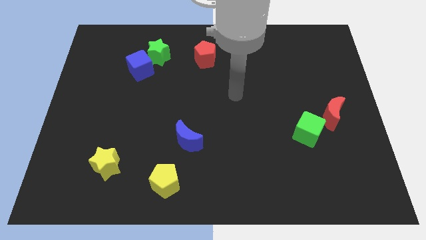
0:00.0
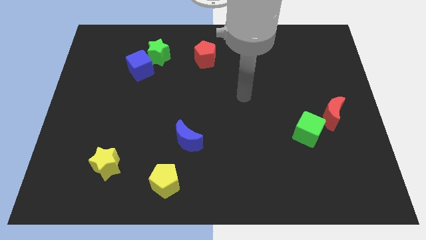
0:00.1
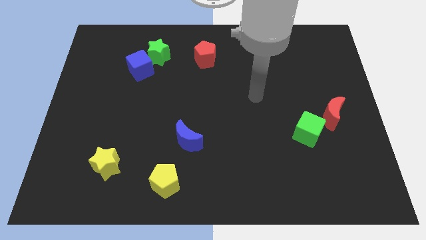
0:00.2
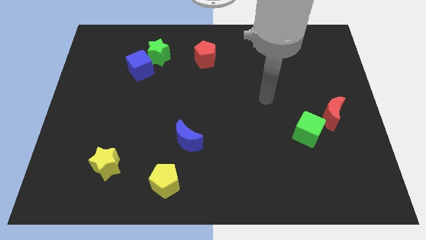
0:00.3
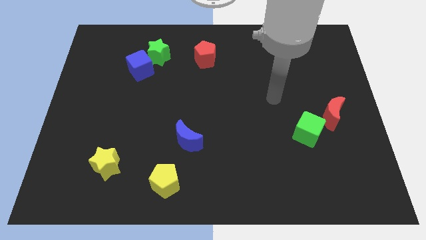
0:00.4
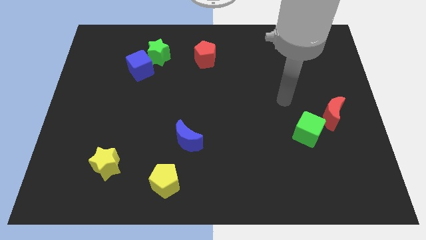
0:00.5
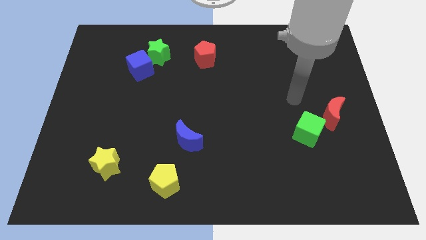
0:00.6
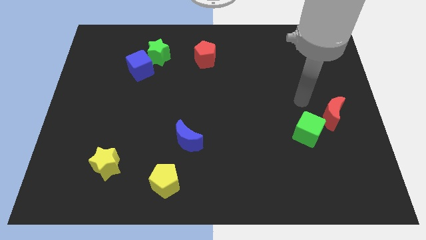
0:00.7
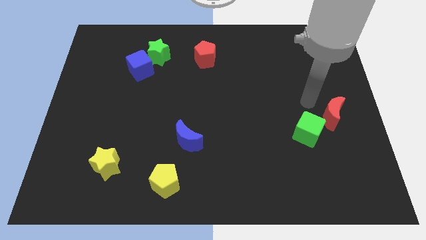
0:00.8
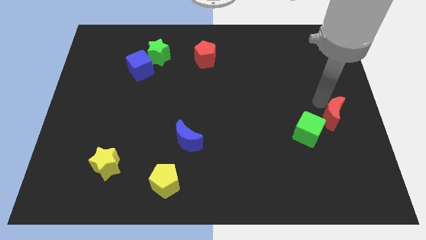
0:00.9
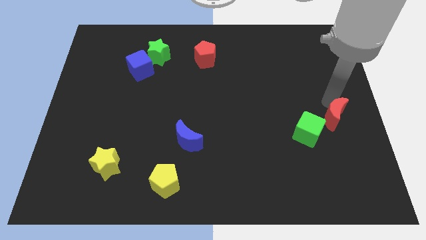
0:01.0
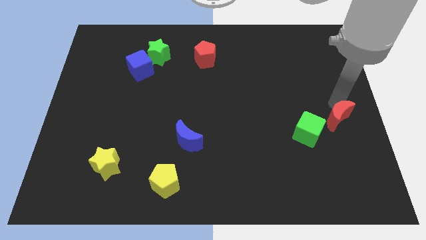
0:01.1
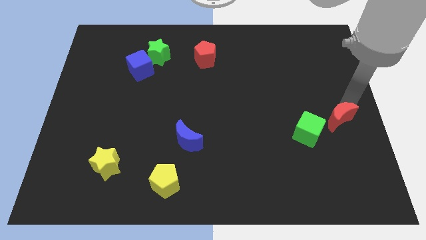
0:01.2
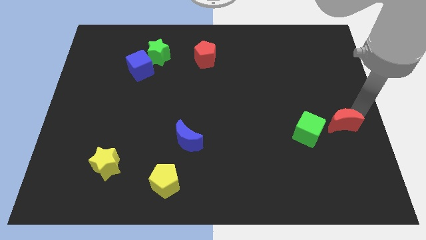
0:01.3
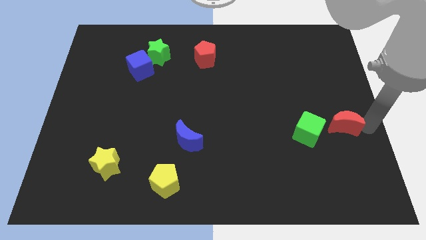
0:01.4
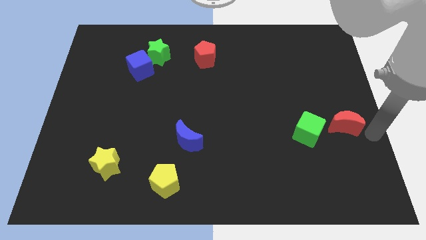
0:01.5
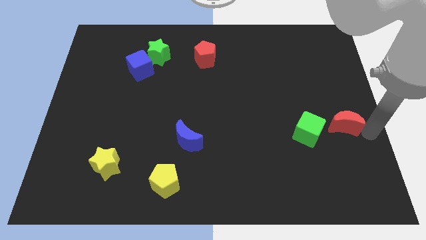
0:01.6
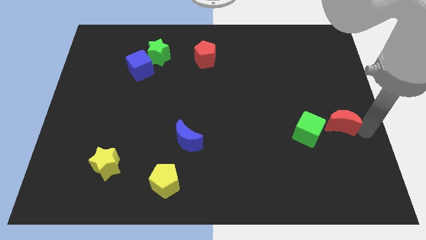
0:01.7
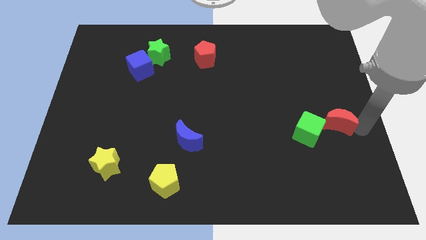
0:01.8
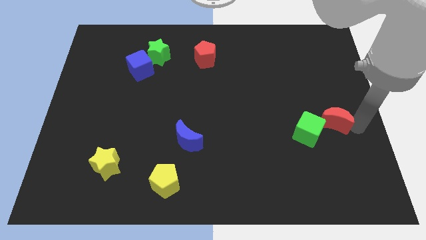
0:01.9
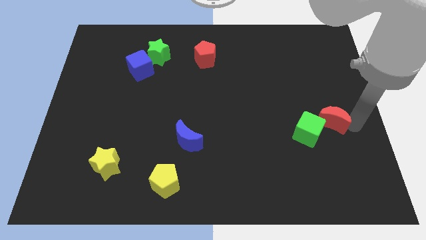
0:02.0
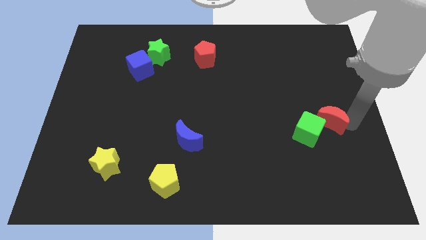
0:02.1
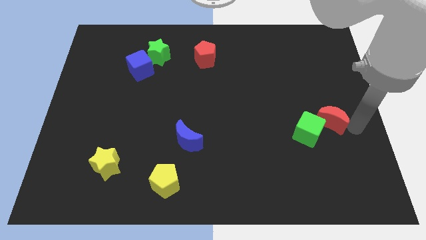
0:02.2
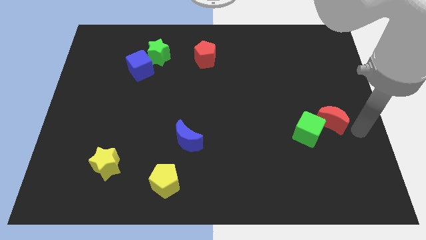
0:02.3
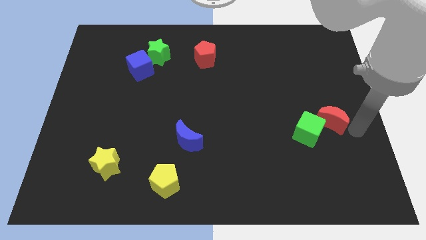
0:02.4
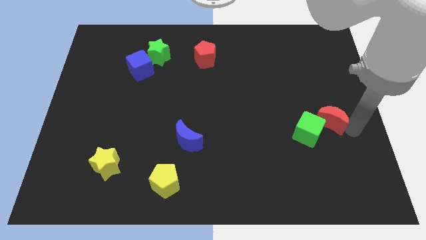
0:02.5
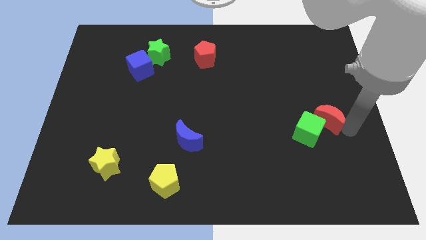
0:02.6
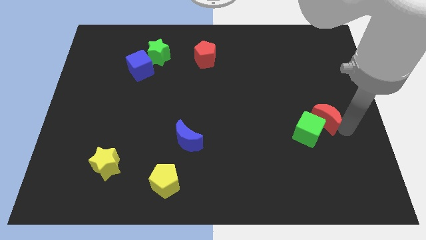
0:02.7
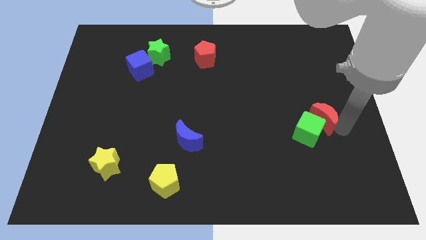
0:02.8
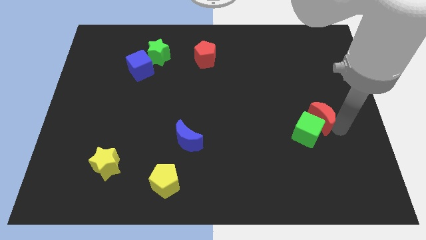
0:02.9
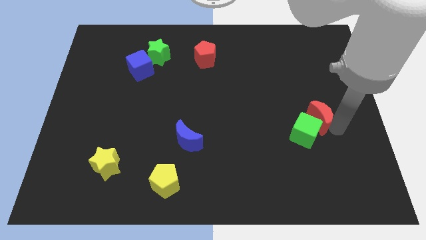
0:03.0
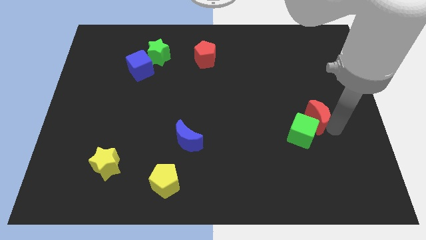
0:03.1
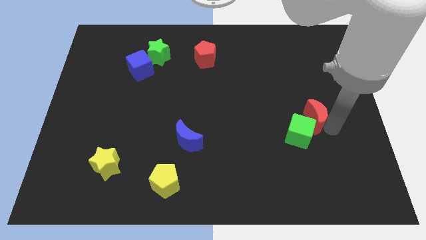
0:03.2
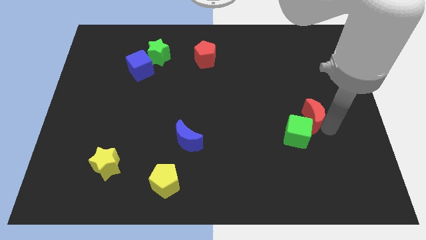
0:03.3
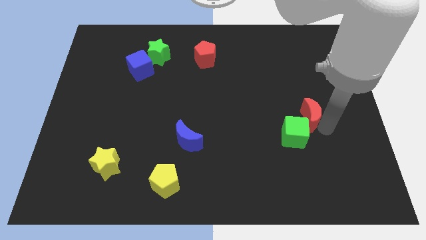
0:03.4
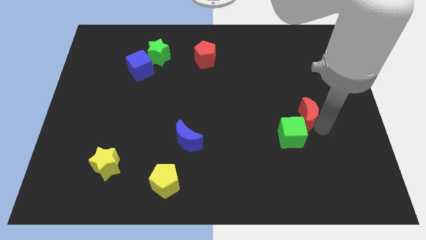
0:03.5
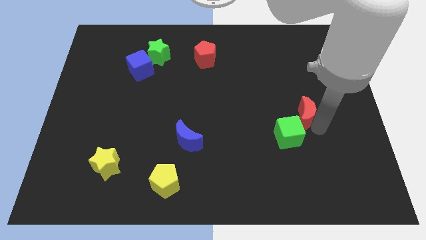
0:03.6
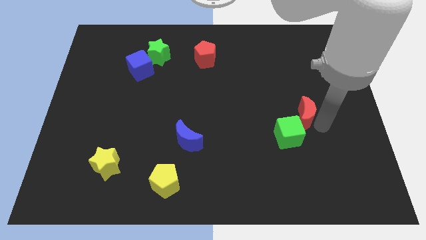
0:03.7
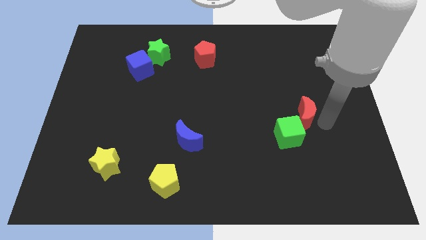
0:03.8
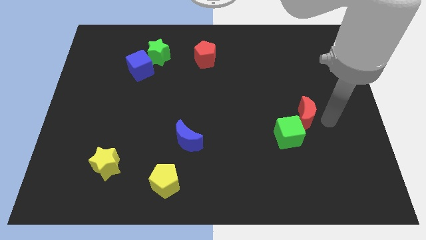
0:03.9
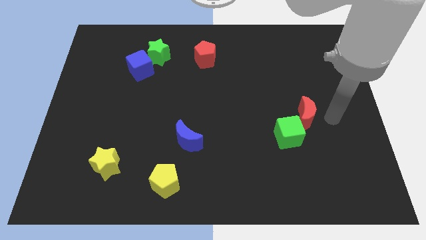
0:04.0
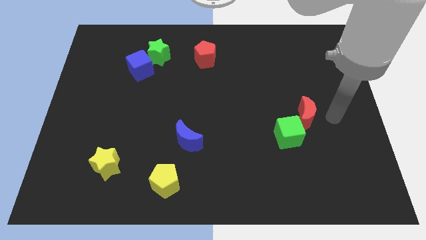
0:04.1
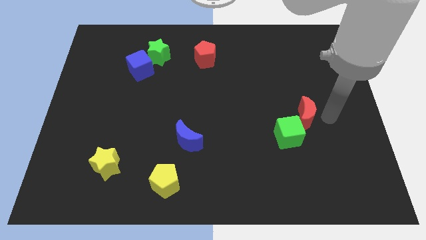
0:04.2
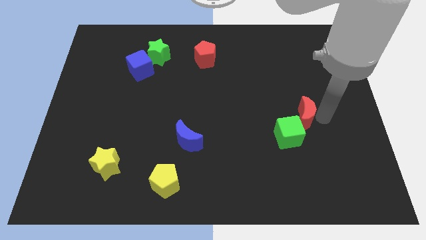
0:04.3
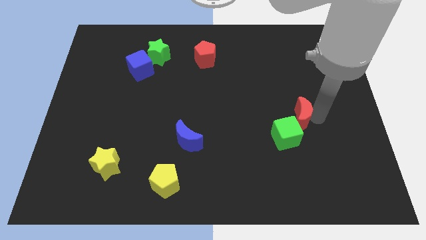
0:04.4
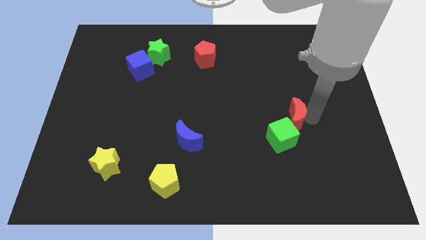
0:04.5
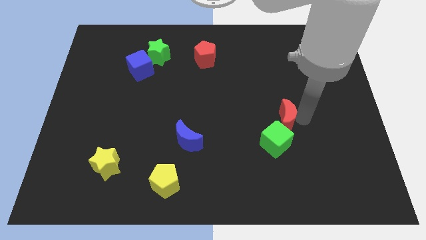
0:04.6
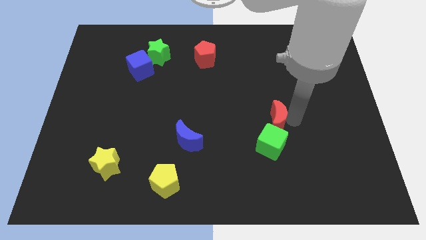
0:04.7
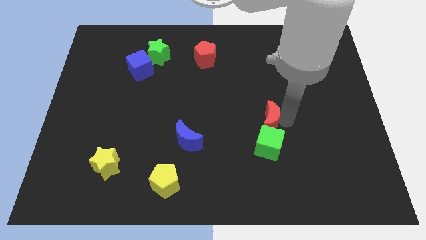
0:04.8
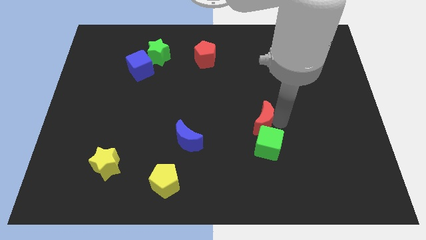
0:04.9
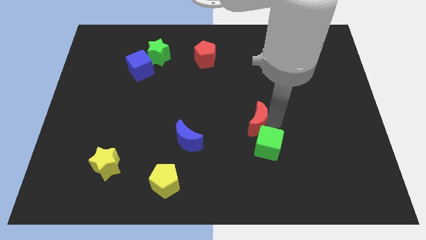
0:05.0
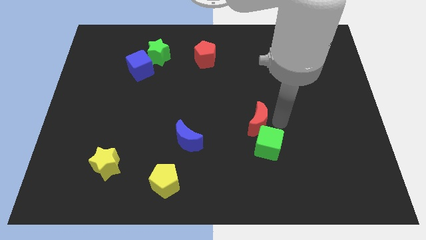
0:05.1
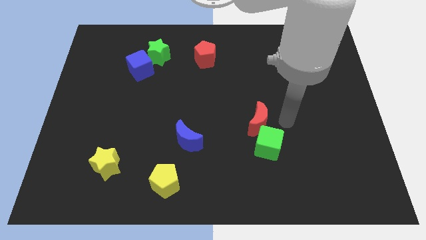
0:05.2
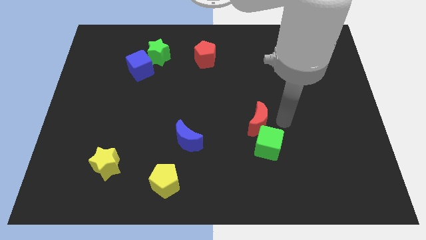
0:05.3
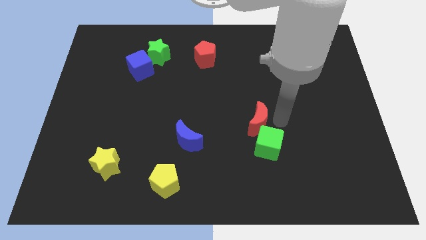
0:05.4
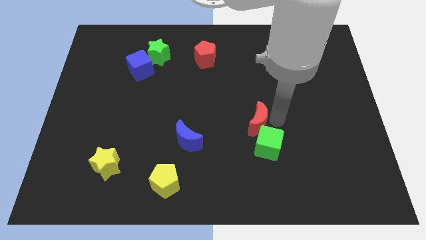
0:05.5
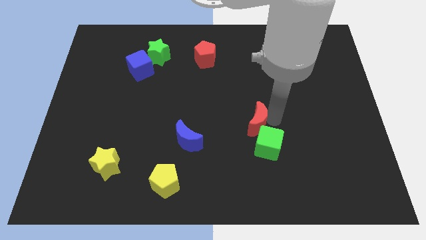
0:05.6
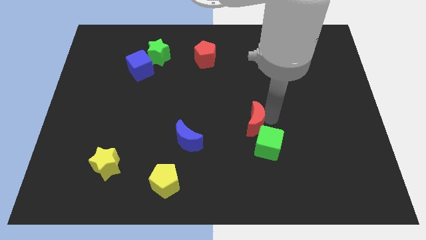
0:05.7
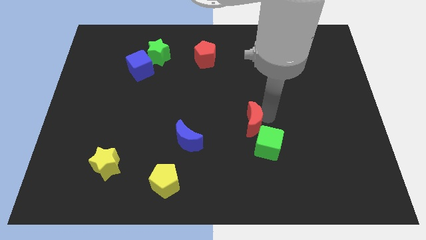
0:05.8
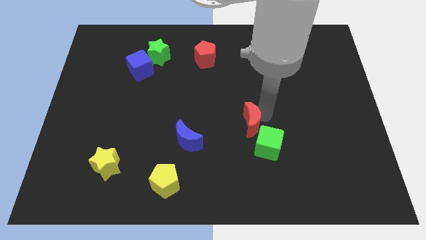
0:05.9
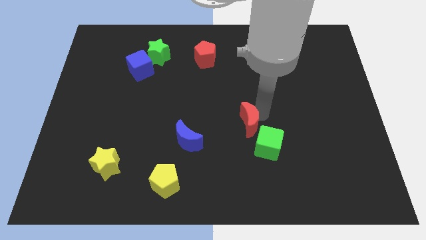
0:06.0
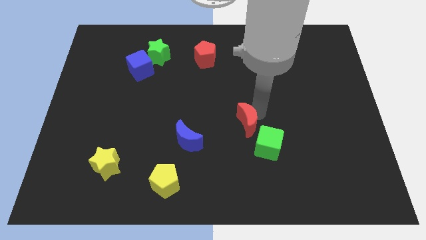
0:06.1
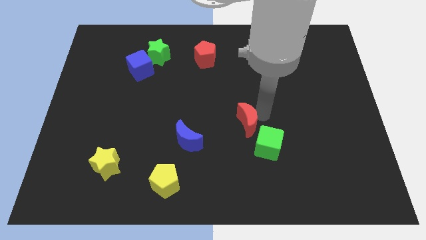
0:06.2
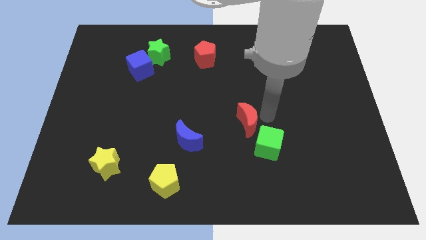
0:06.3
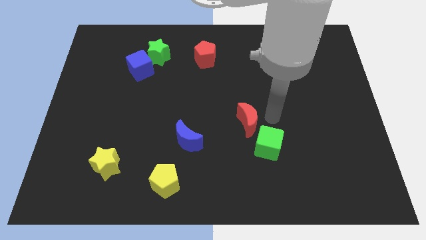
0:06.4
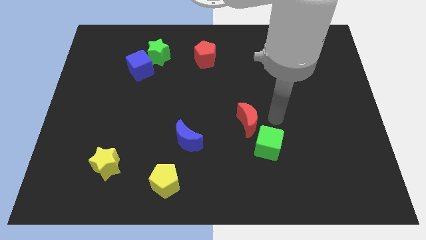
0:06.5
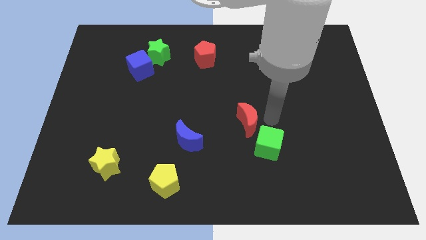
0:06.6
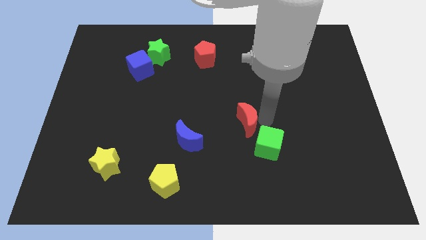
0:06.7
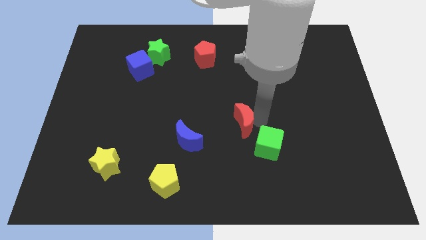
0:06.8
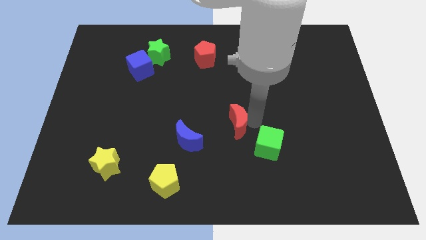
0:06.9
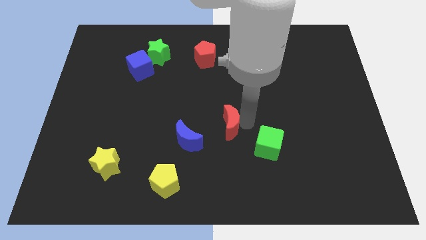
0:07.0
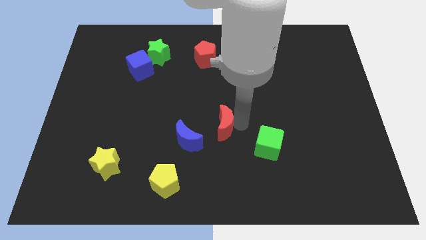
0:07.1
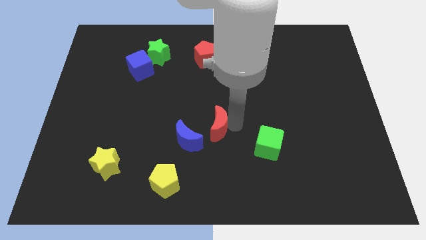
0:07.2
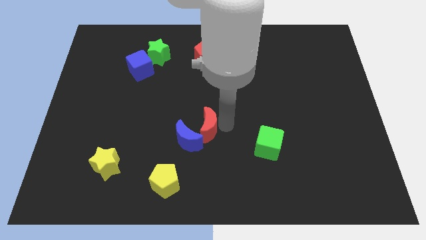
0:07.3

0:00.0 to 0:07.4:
put the red moon towards the blue moon

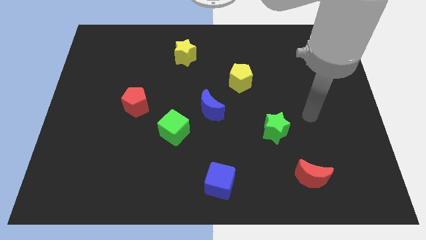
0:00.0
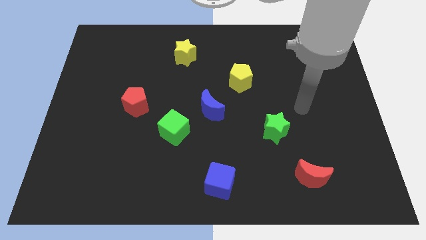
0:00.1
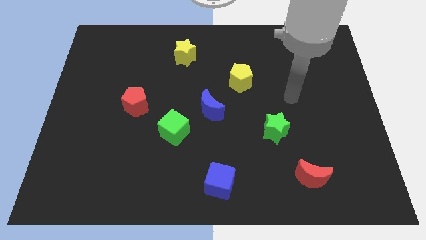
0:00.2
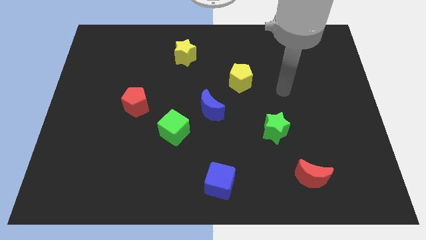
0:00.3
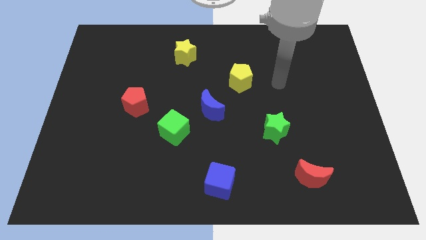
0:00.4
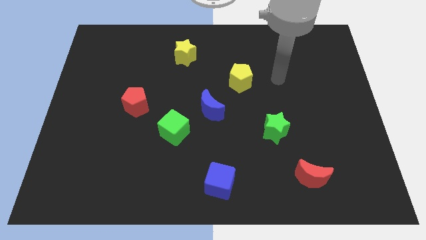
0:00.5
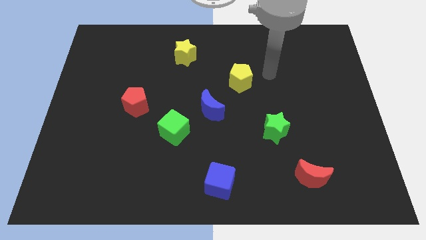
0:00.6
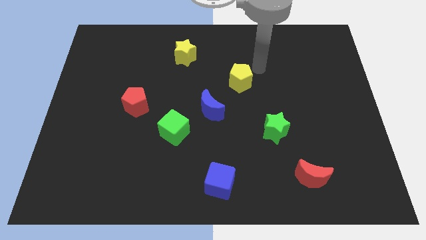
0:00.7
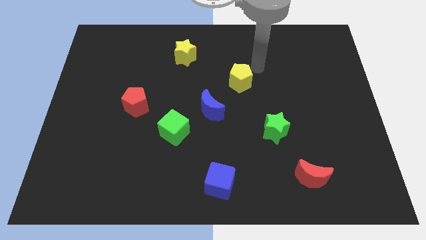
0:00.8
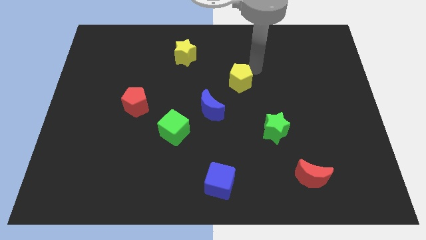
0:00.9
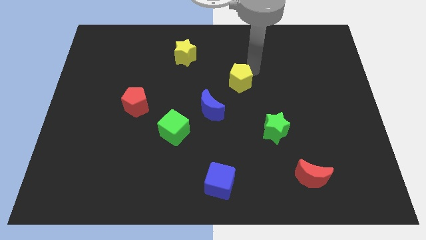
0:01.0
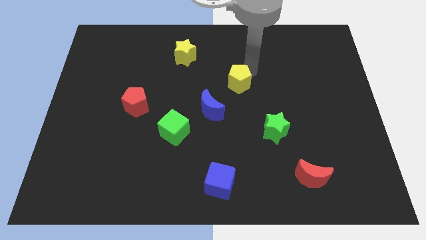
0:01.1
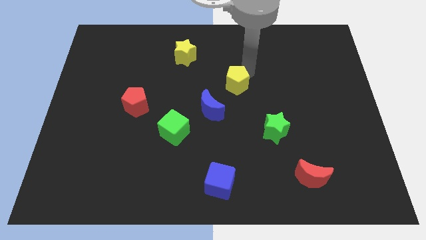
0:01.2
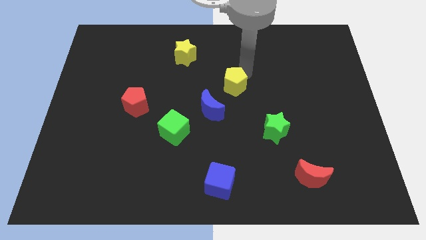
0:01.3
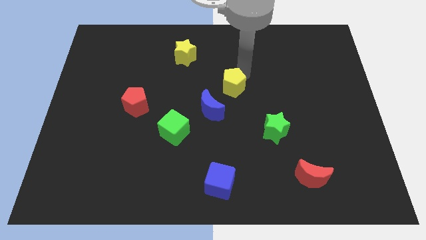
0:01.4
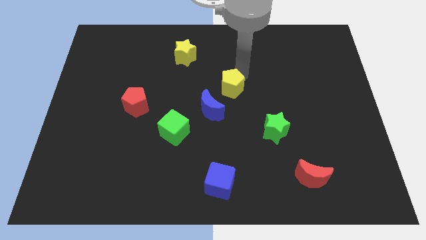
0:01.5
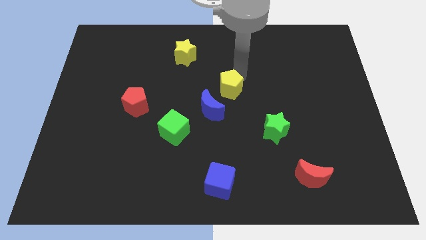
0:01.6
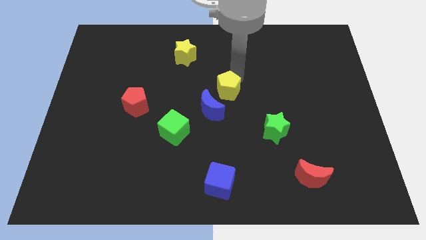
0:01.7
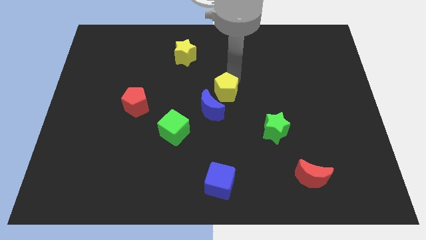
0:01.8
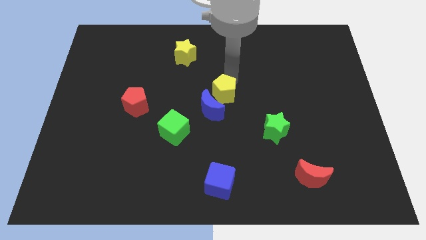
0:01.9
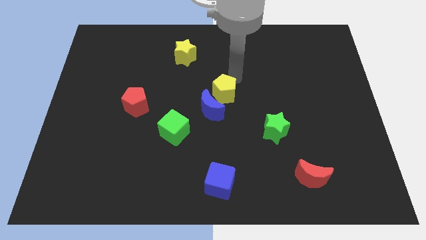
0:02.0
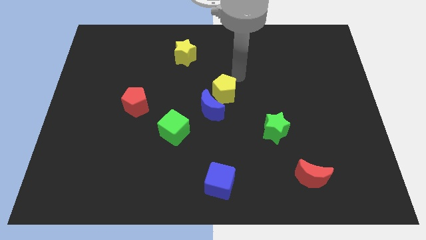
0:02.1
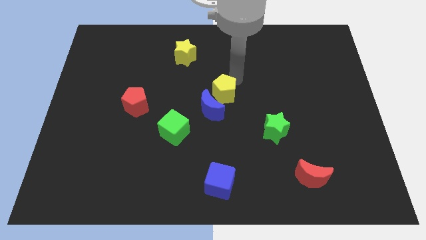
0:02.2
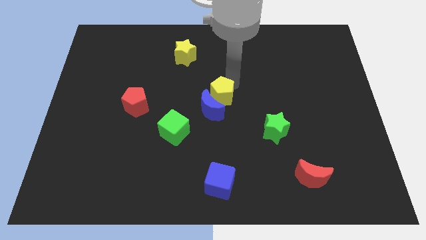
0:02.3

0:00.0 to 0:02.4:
move the yellow pentagon next to the blue moon
